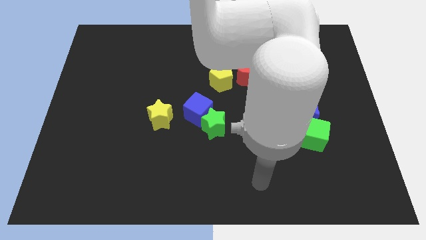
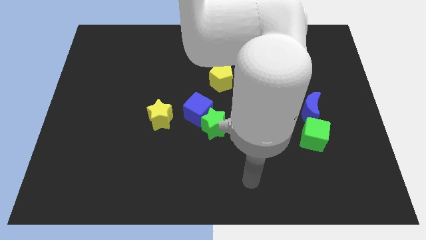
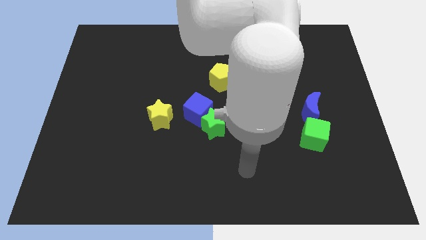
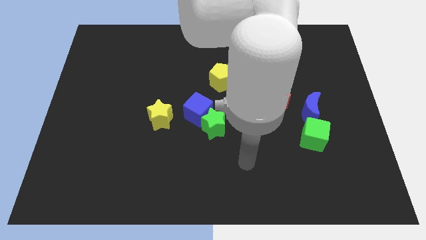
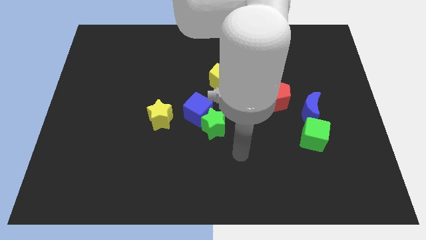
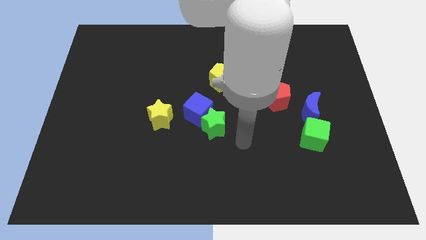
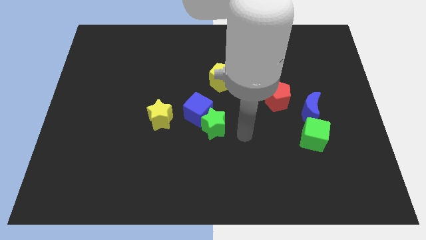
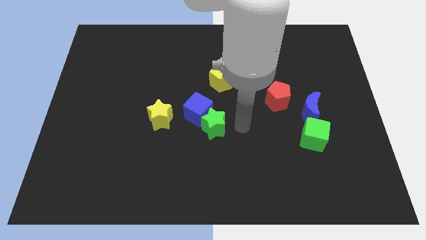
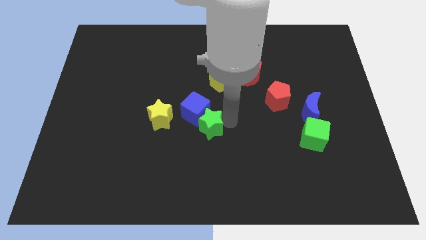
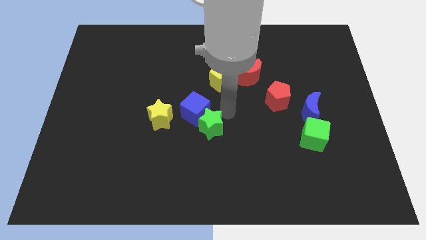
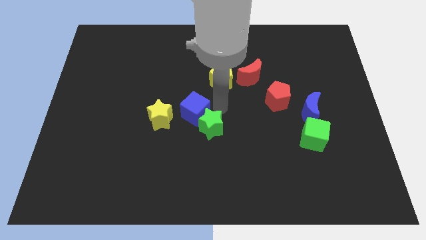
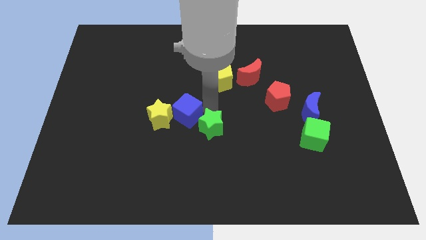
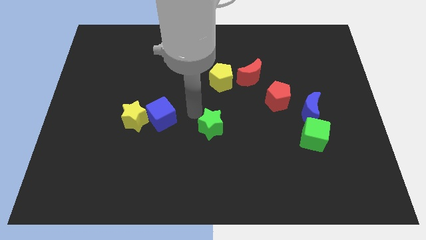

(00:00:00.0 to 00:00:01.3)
separate the green star from the blue cube

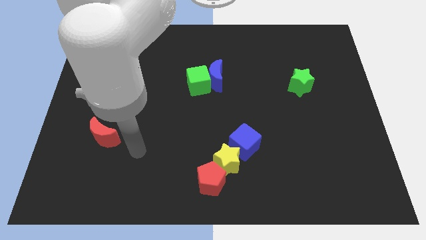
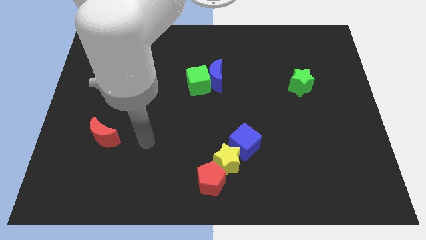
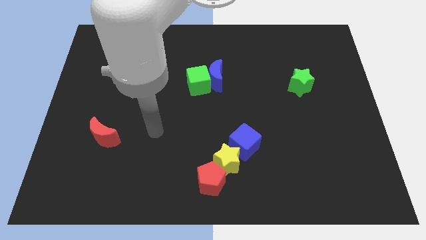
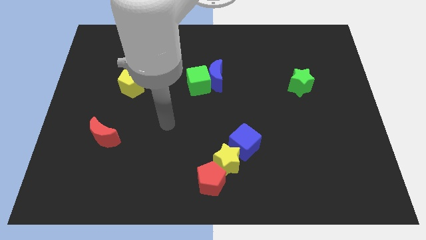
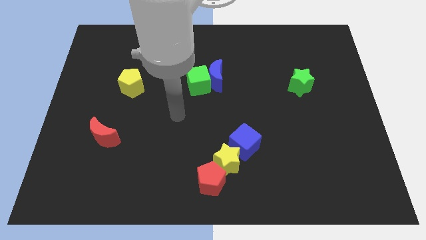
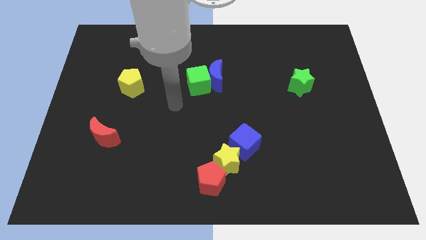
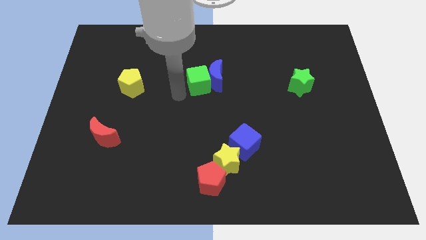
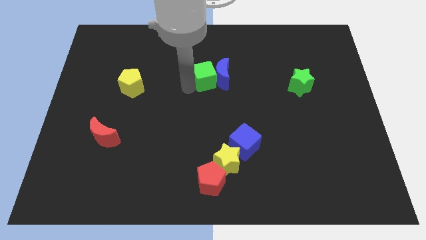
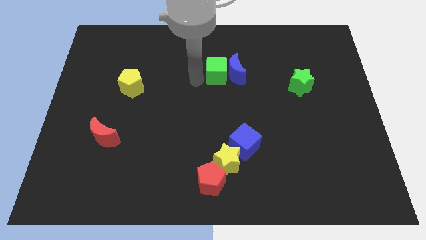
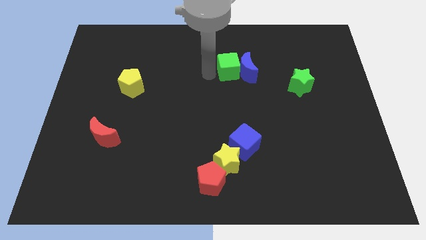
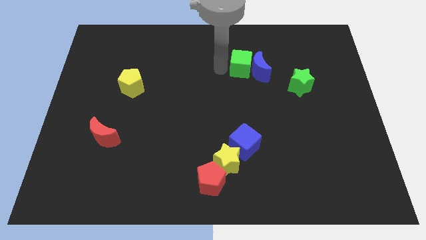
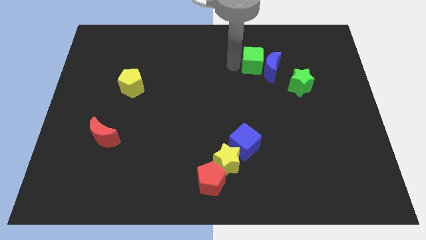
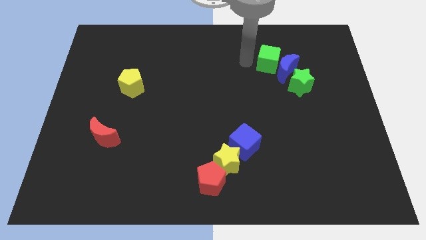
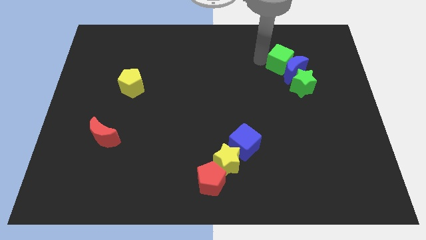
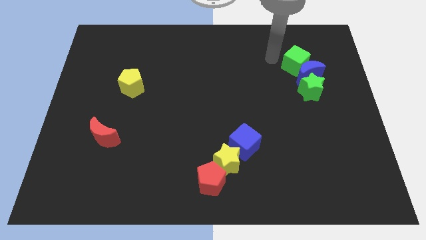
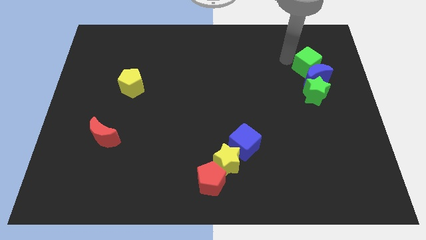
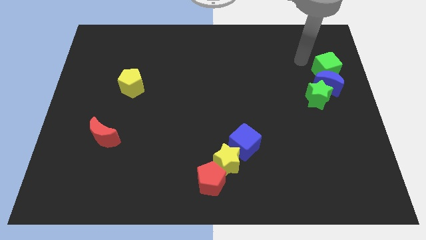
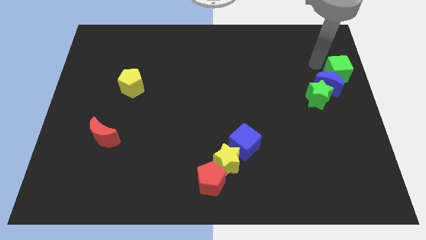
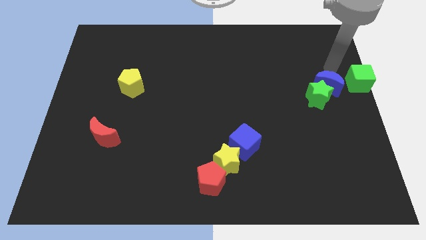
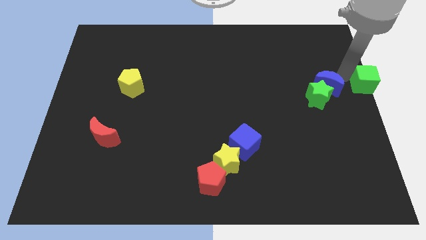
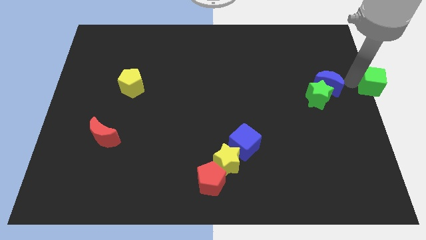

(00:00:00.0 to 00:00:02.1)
pull the blue moon apart from the green cube

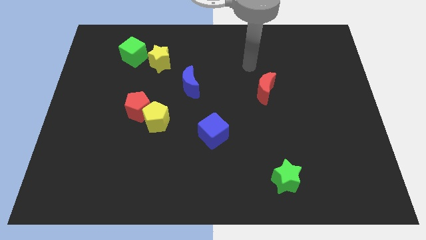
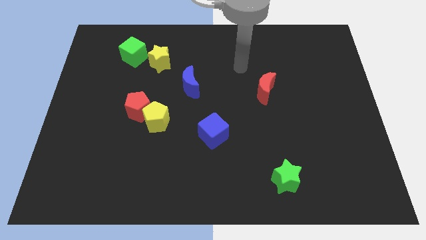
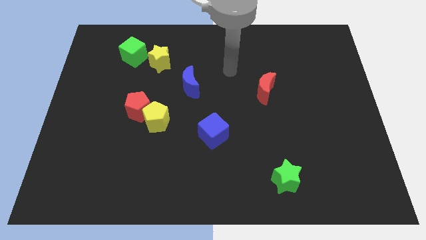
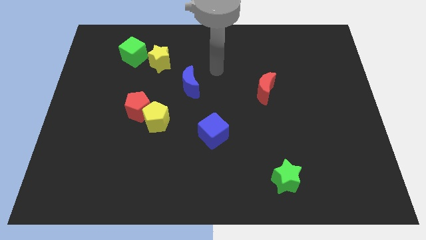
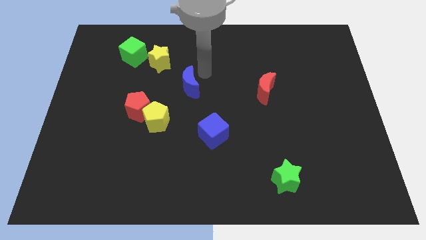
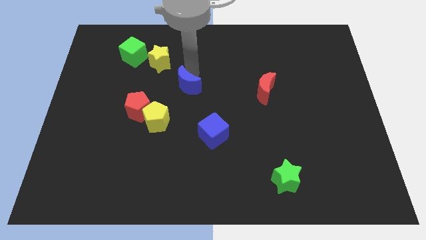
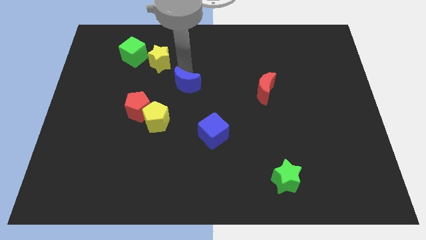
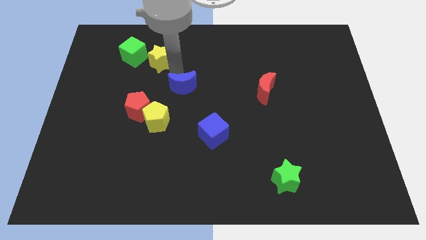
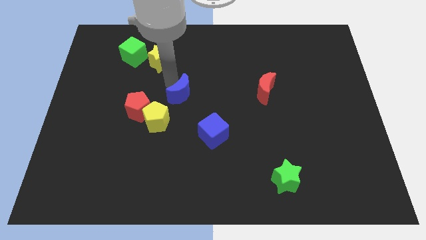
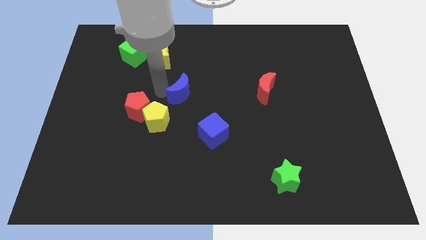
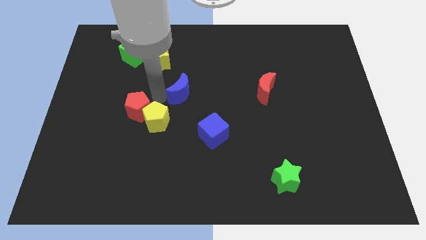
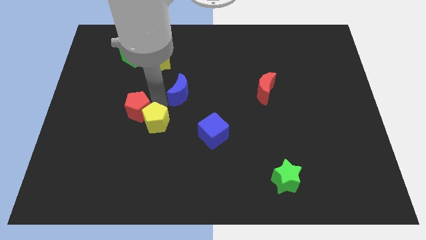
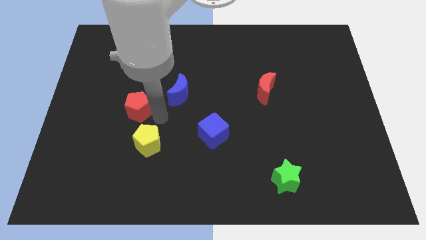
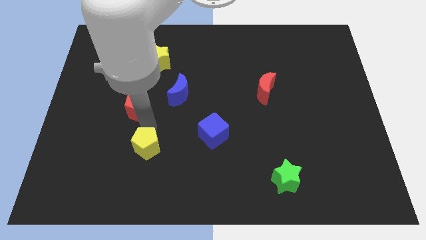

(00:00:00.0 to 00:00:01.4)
move the red pentagon away from the yellow pentagon

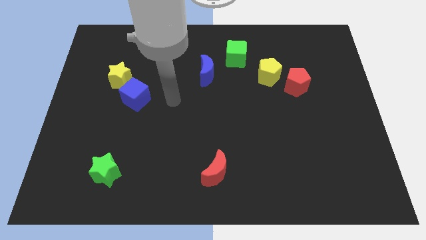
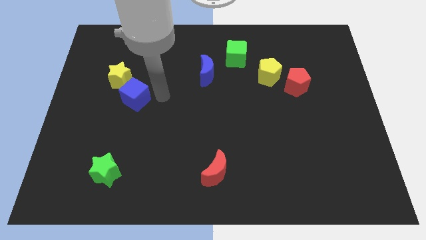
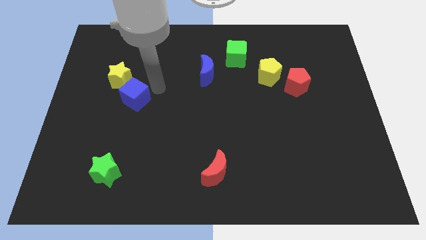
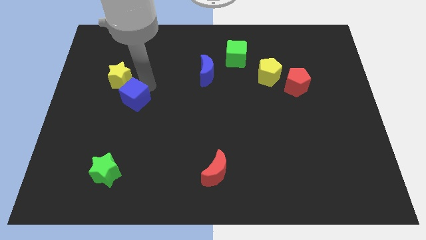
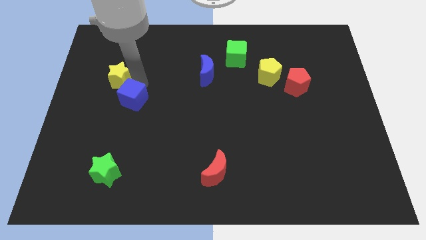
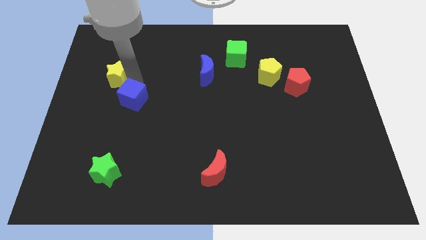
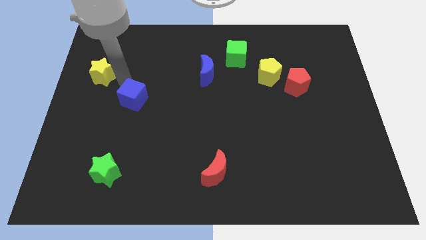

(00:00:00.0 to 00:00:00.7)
pull the blue cube apart from the yellow star

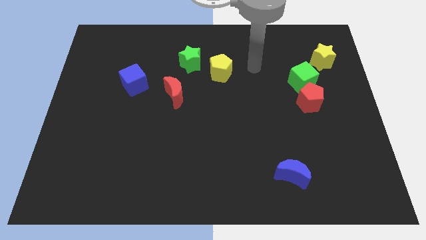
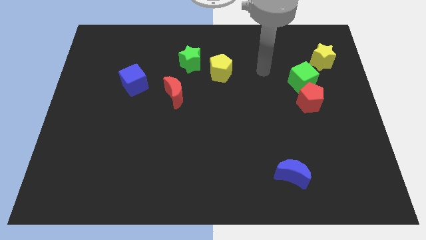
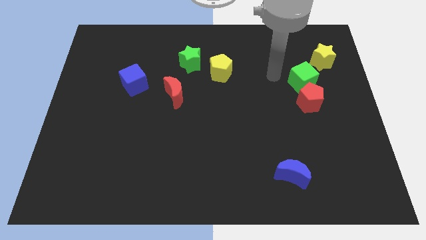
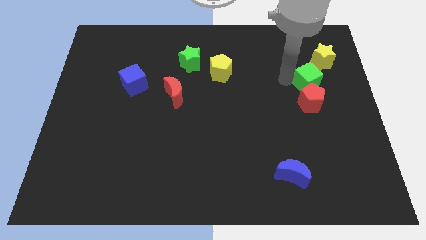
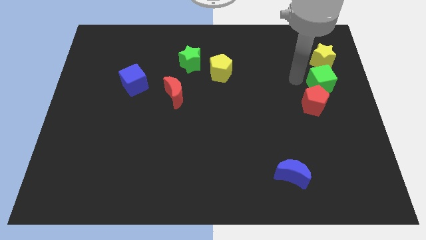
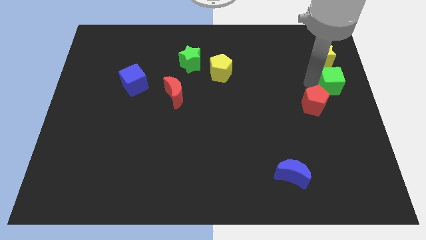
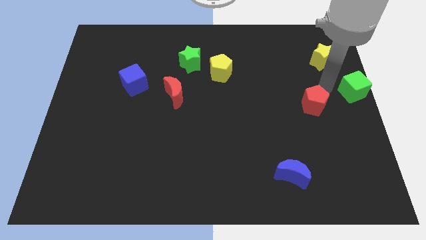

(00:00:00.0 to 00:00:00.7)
pull the red pentagon apart from the green cube

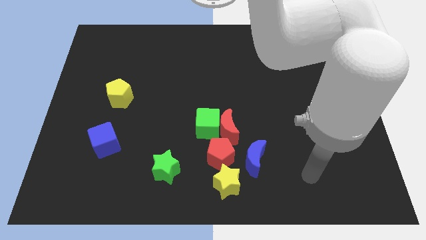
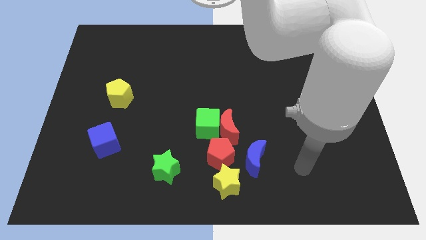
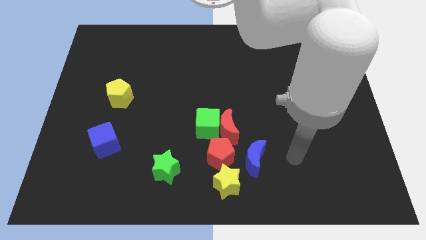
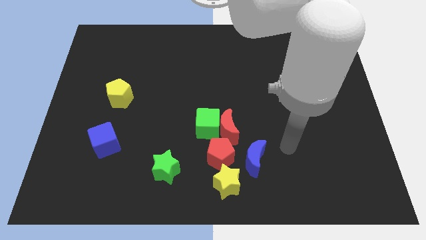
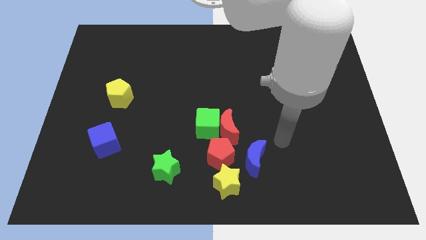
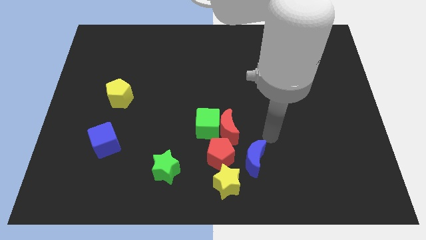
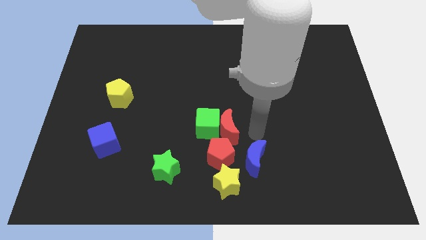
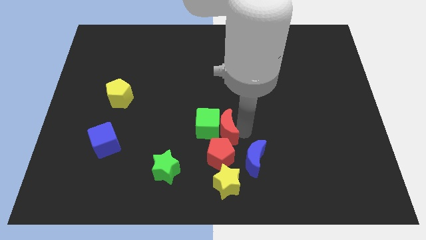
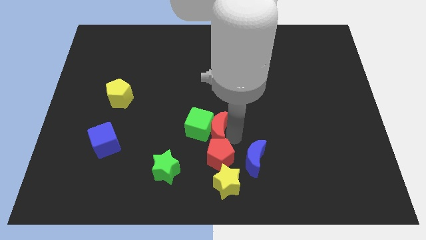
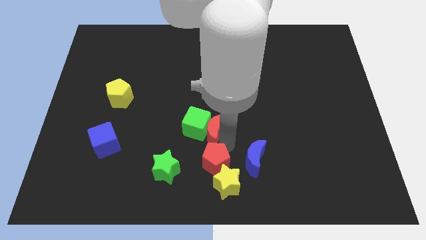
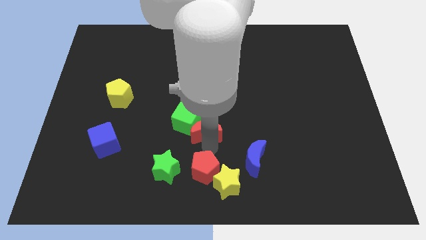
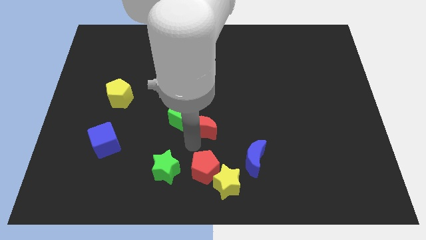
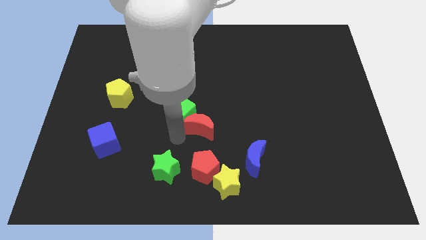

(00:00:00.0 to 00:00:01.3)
separate the green cube from the red moon and red pentagon

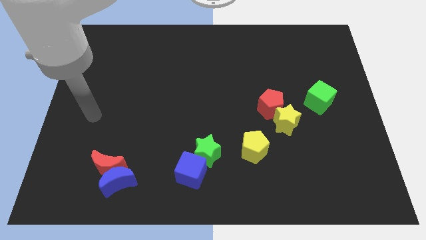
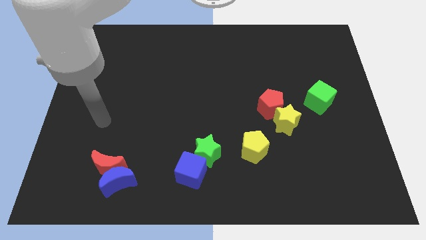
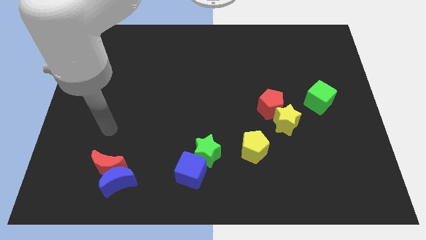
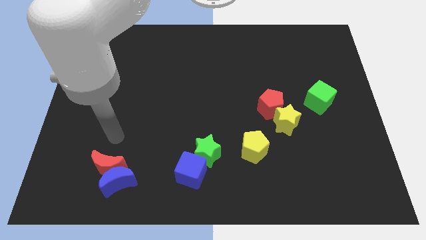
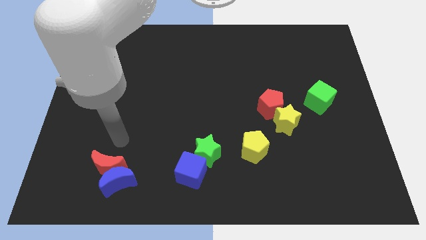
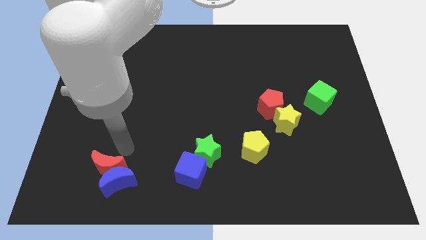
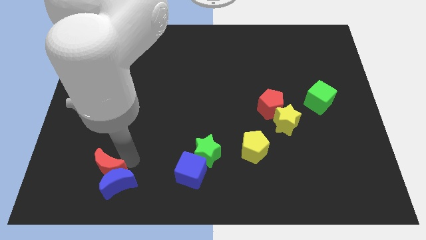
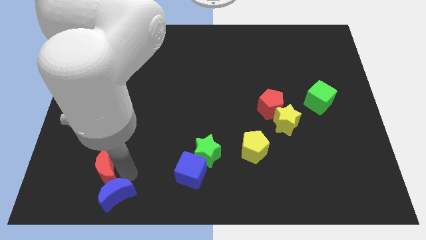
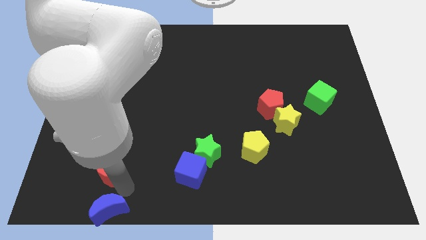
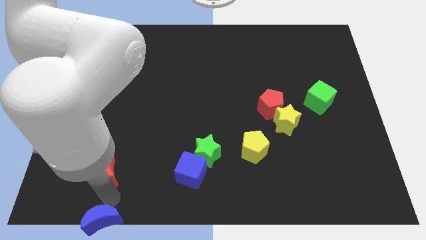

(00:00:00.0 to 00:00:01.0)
pull the red moon apart from the blue moon

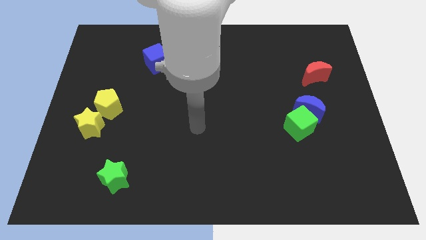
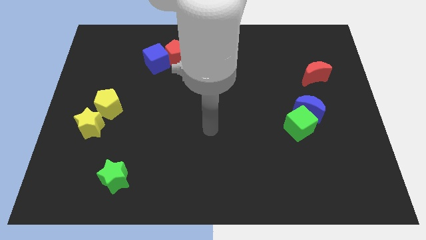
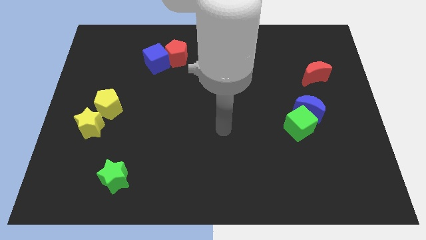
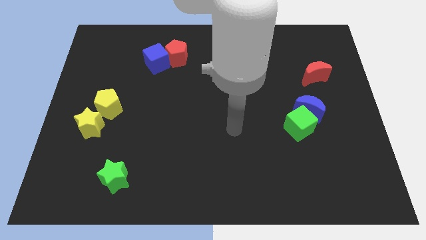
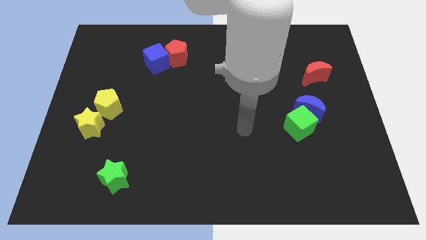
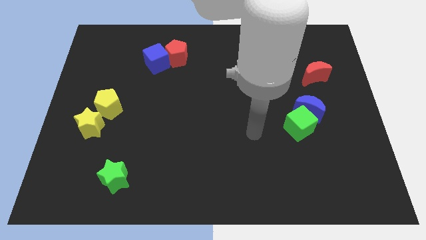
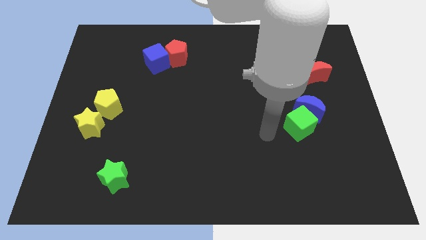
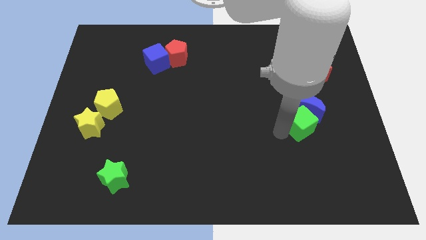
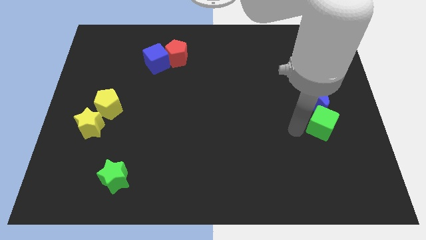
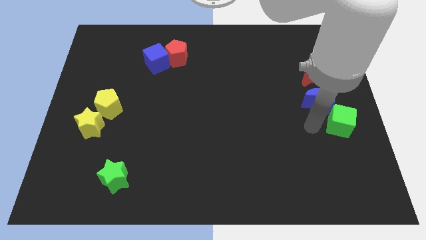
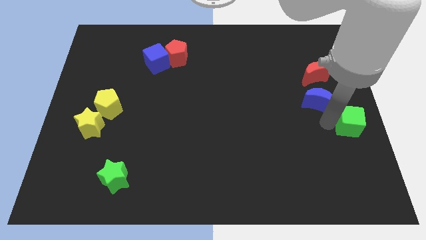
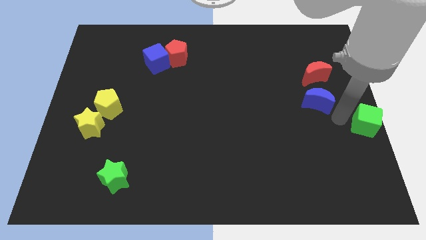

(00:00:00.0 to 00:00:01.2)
move the blue moon away from the green cube
